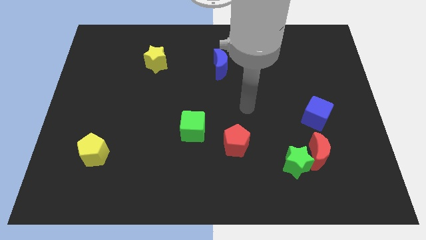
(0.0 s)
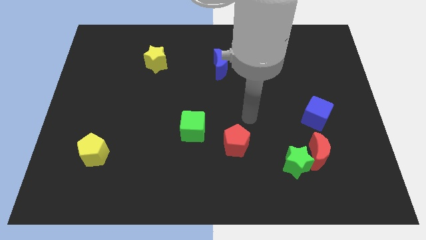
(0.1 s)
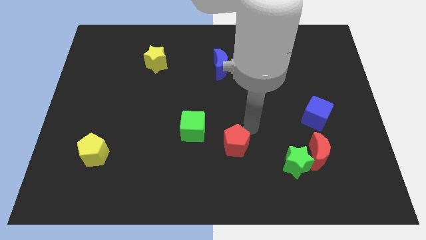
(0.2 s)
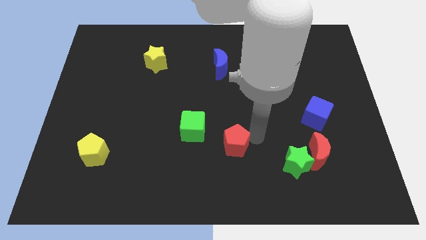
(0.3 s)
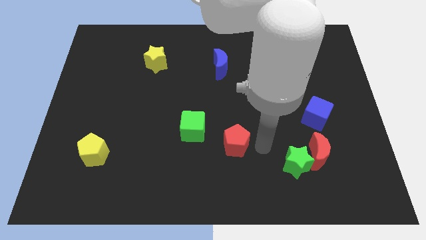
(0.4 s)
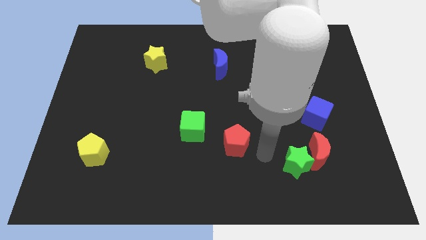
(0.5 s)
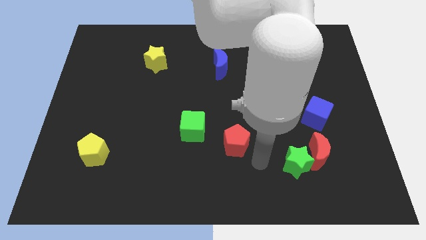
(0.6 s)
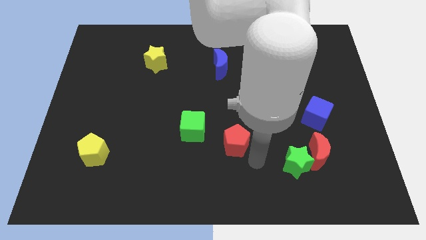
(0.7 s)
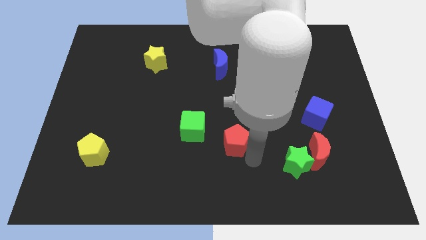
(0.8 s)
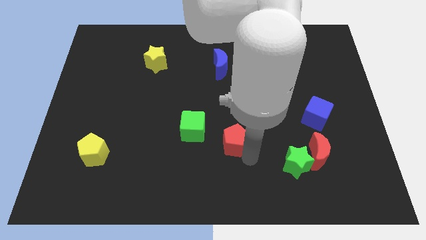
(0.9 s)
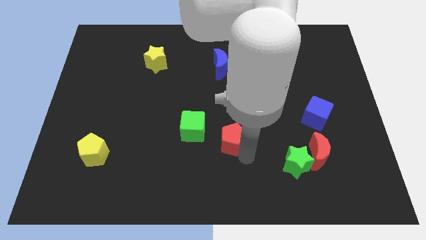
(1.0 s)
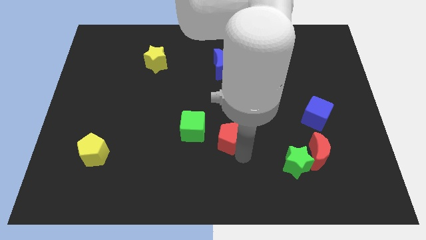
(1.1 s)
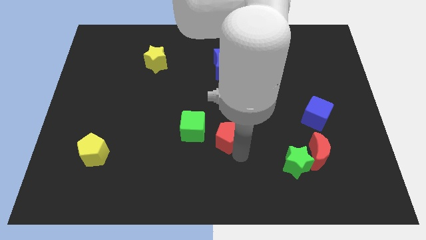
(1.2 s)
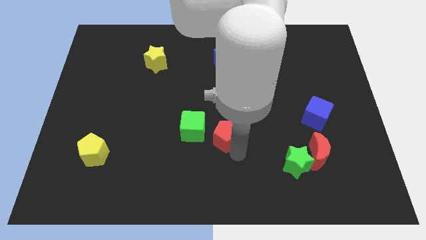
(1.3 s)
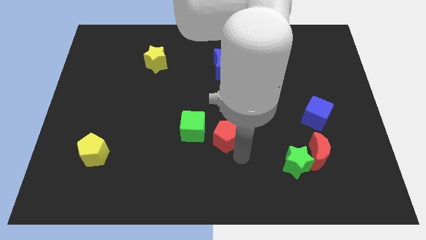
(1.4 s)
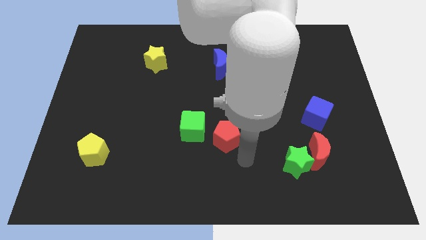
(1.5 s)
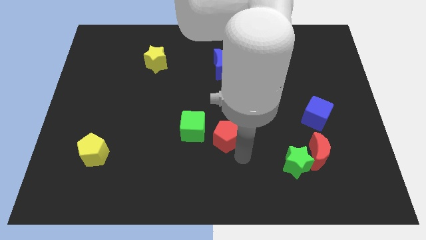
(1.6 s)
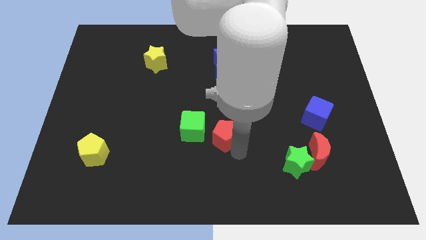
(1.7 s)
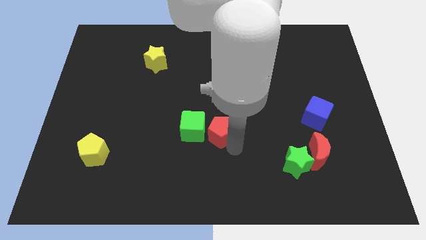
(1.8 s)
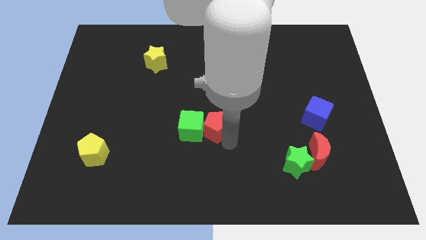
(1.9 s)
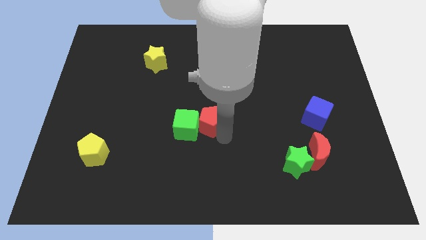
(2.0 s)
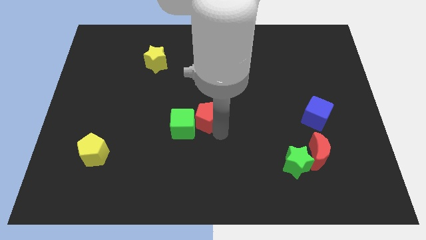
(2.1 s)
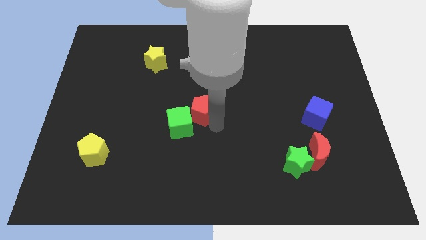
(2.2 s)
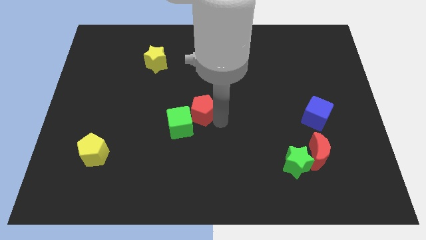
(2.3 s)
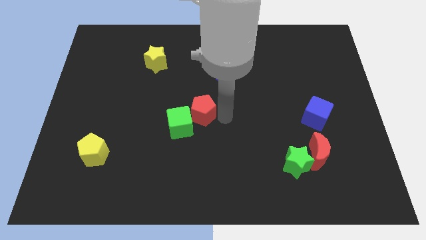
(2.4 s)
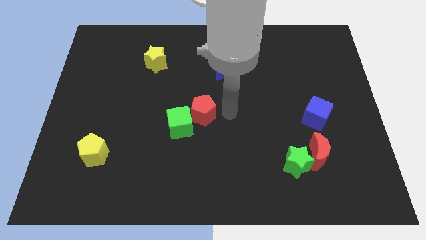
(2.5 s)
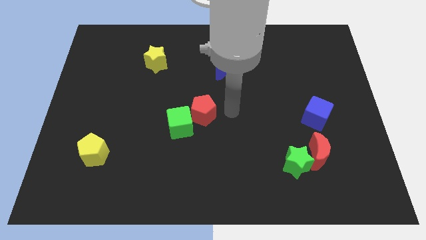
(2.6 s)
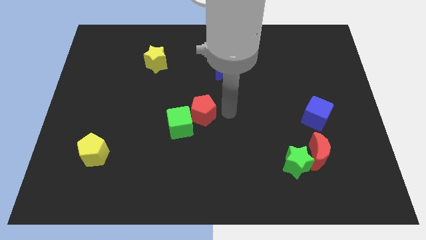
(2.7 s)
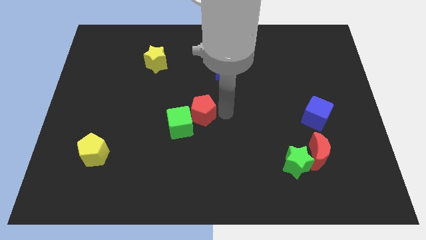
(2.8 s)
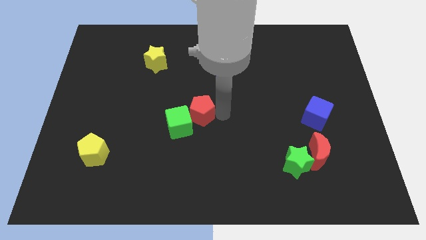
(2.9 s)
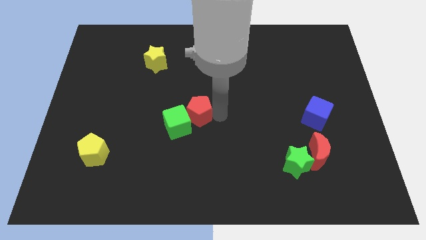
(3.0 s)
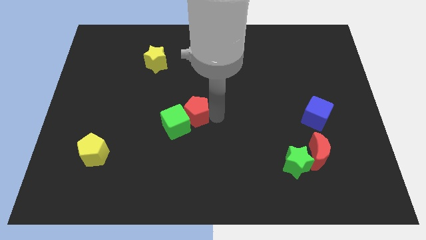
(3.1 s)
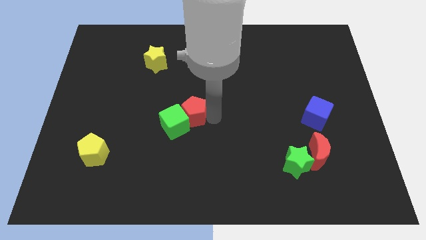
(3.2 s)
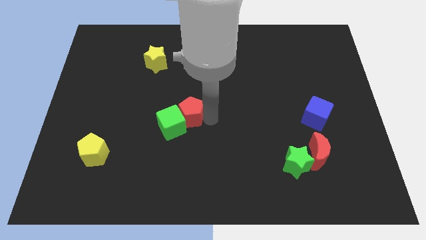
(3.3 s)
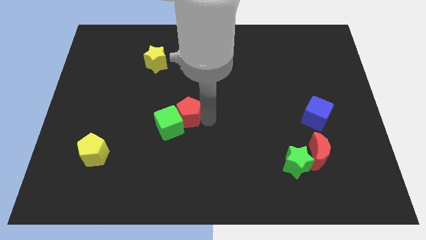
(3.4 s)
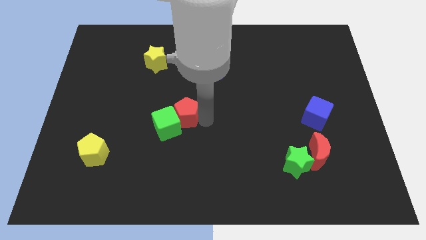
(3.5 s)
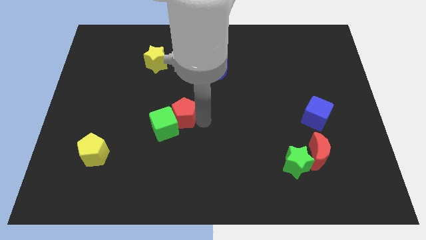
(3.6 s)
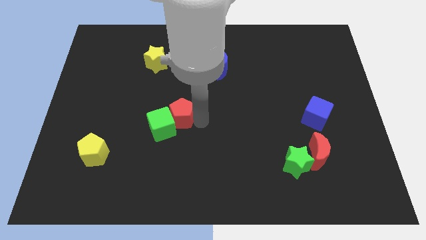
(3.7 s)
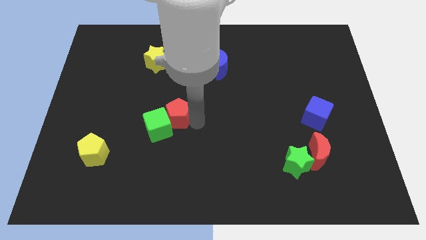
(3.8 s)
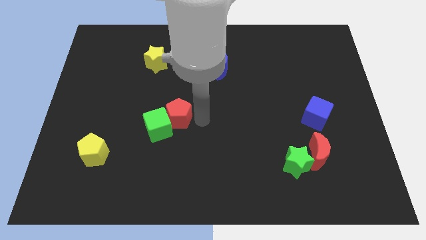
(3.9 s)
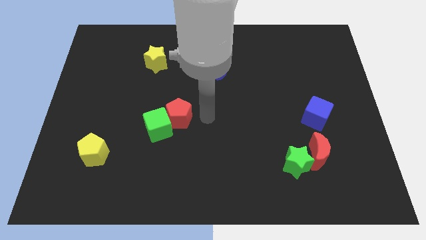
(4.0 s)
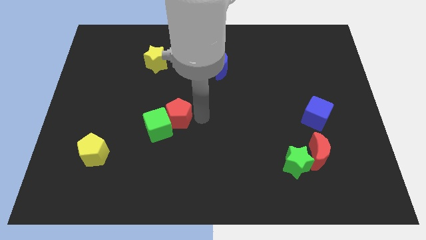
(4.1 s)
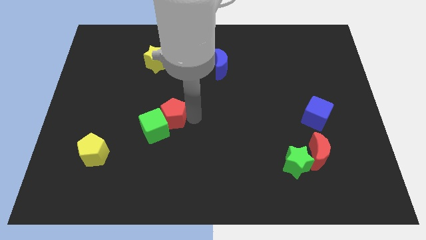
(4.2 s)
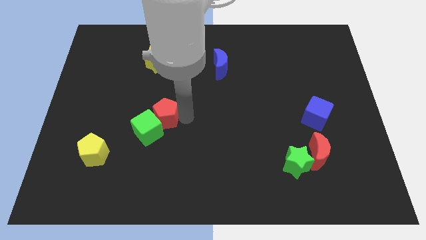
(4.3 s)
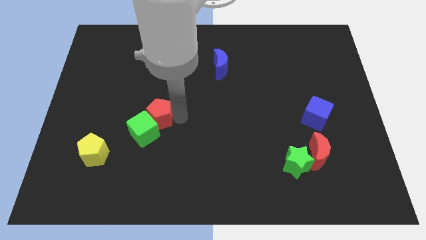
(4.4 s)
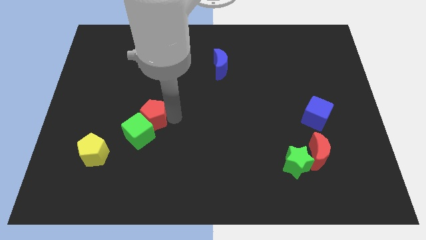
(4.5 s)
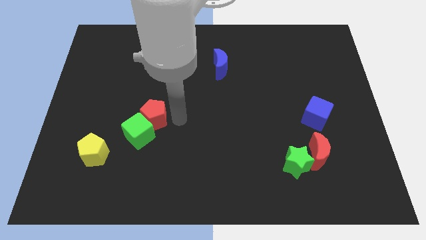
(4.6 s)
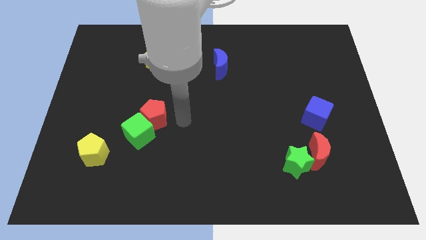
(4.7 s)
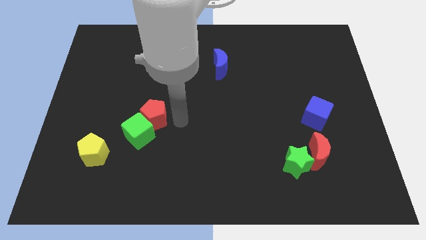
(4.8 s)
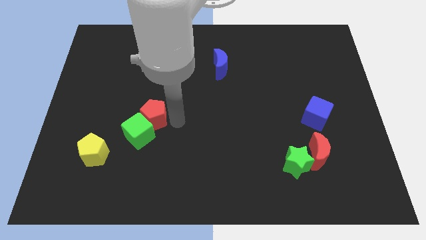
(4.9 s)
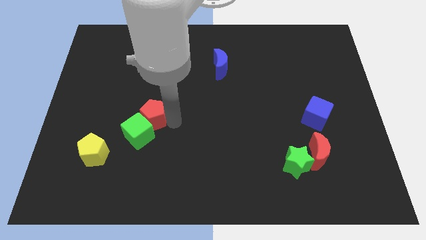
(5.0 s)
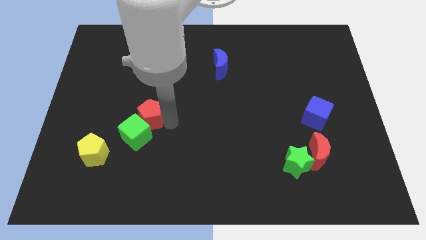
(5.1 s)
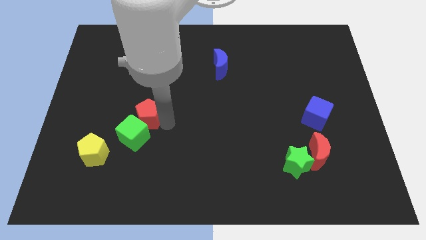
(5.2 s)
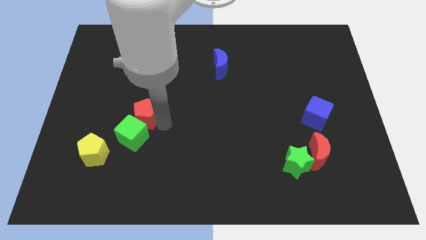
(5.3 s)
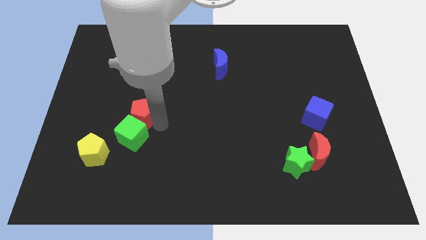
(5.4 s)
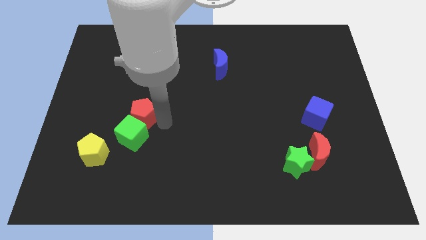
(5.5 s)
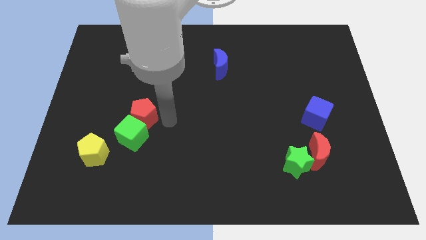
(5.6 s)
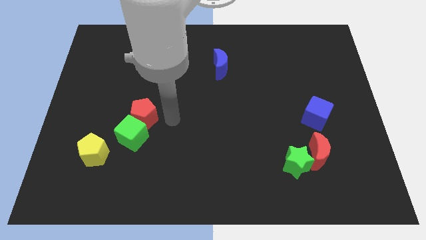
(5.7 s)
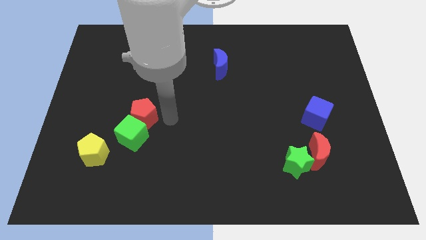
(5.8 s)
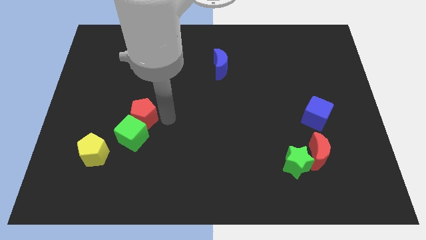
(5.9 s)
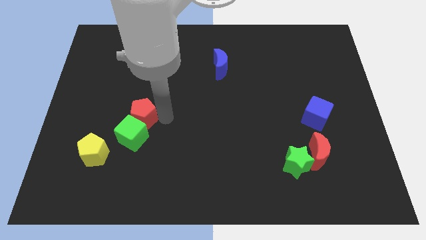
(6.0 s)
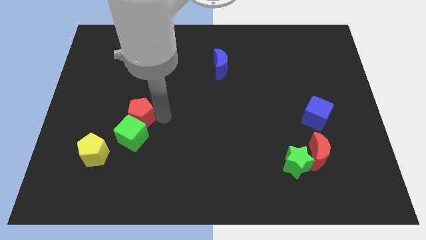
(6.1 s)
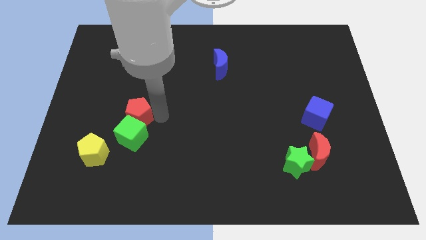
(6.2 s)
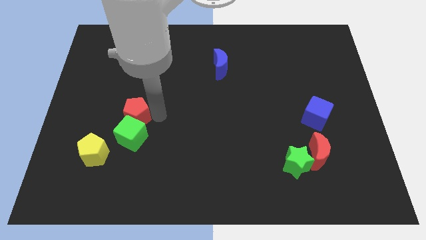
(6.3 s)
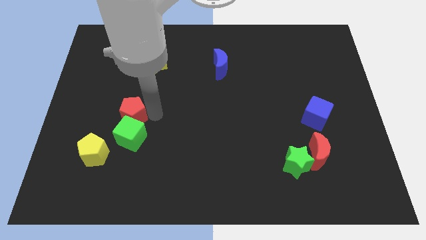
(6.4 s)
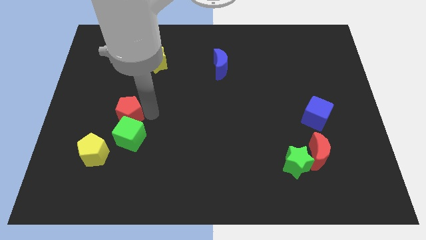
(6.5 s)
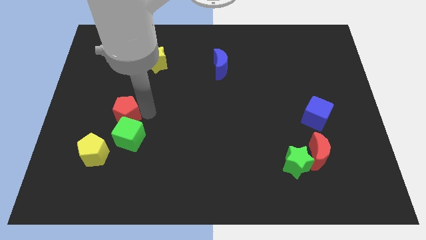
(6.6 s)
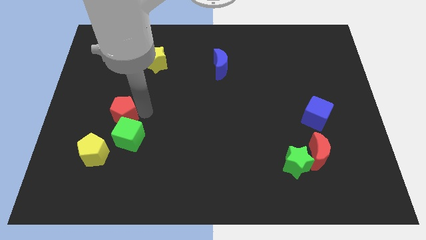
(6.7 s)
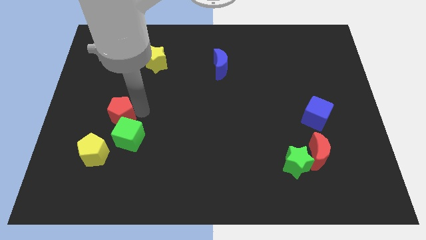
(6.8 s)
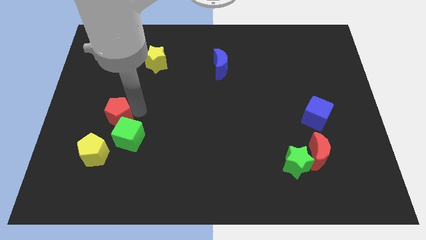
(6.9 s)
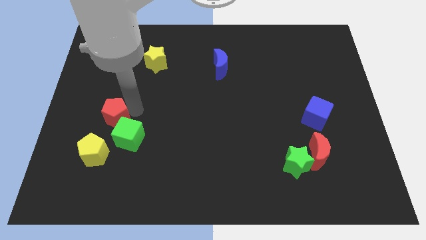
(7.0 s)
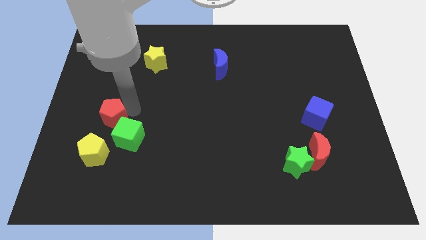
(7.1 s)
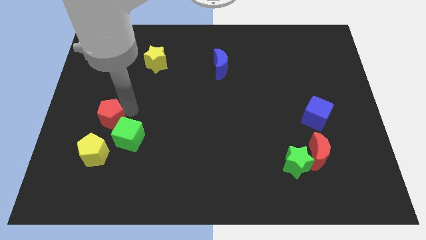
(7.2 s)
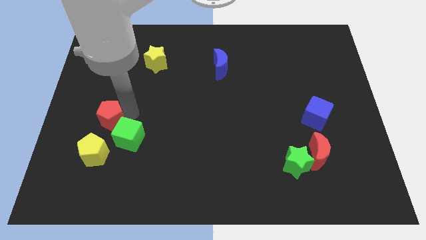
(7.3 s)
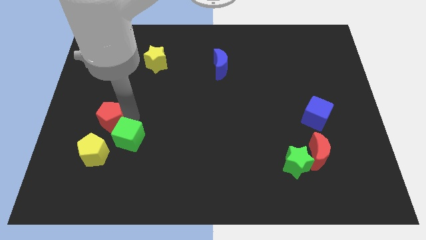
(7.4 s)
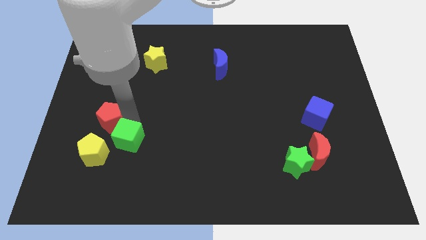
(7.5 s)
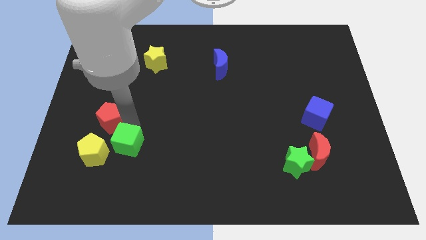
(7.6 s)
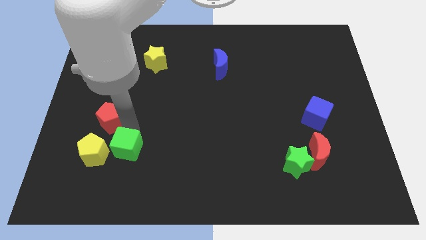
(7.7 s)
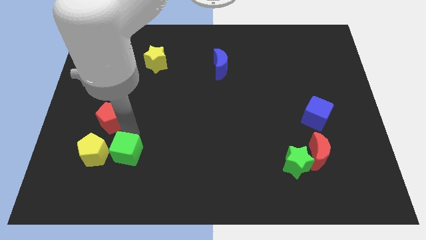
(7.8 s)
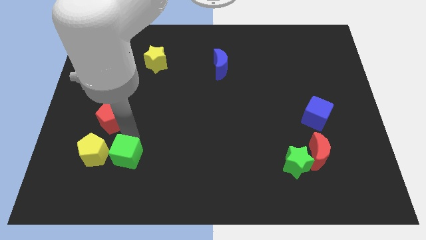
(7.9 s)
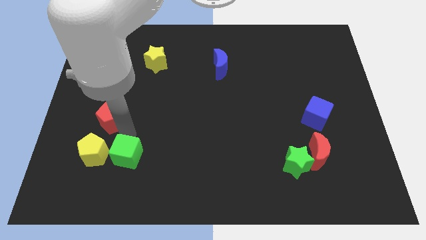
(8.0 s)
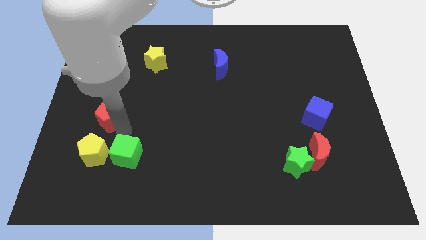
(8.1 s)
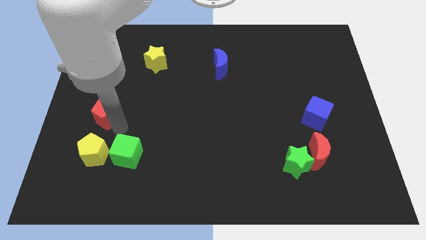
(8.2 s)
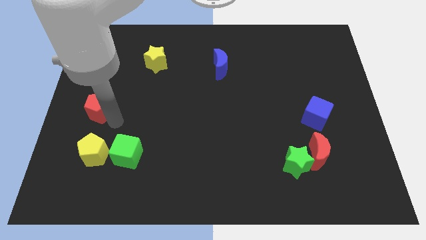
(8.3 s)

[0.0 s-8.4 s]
push the red pentagon to the center left
